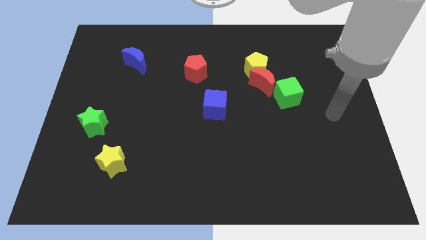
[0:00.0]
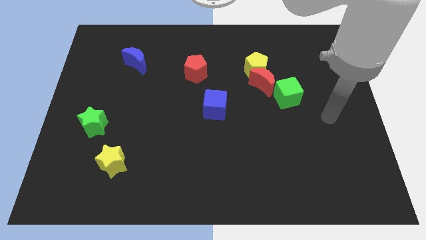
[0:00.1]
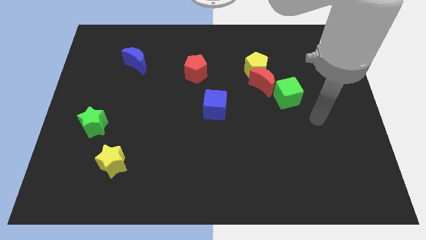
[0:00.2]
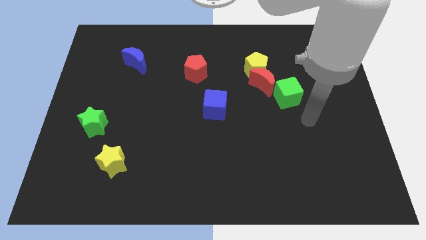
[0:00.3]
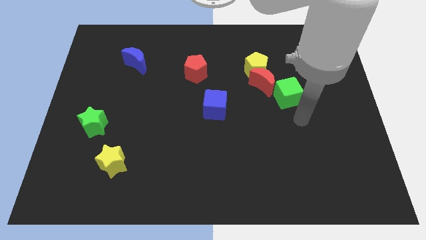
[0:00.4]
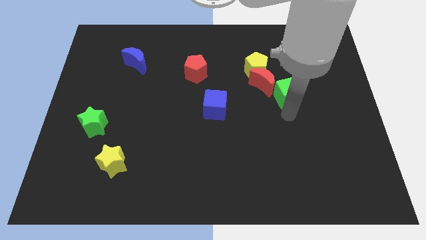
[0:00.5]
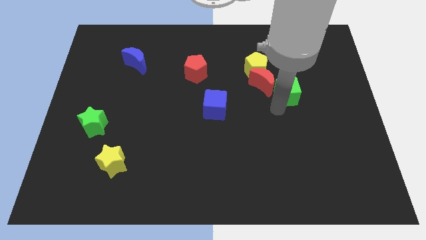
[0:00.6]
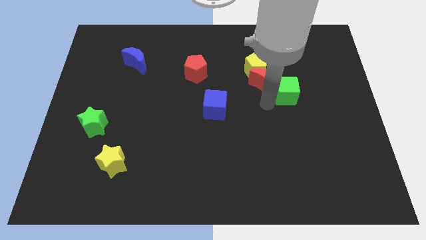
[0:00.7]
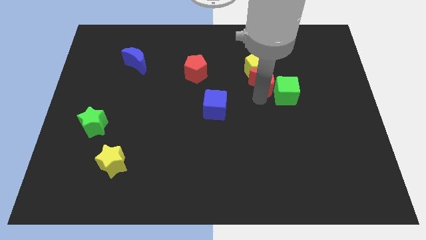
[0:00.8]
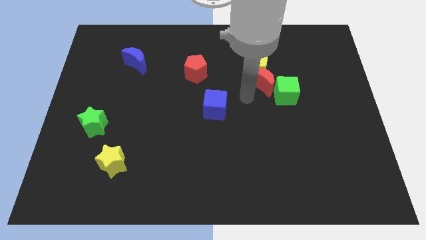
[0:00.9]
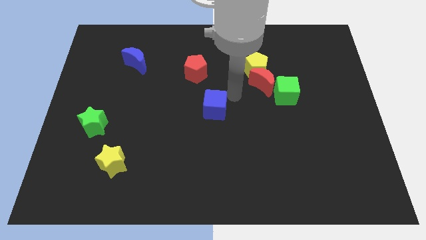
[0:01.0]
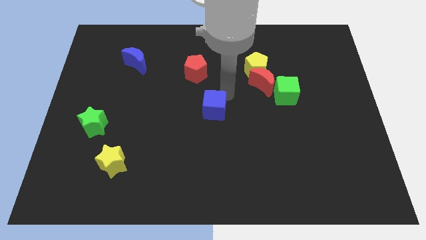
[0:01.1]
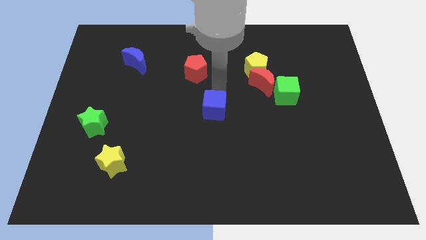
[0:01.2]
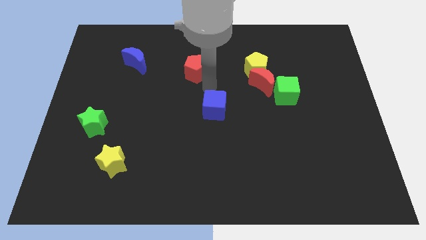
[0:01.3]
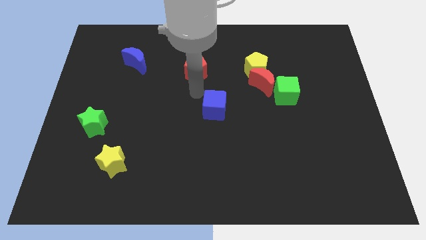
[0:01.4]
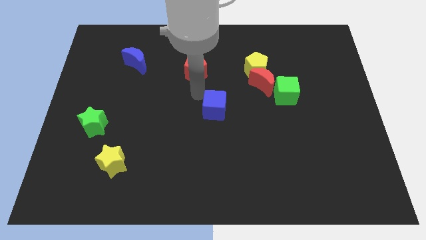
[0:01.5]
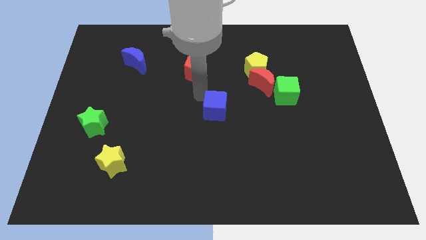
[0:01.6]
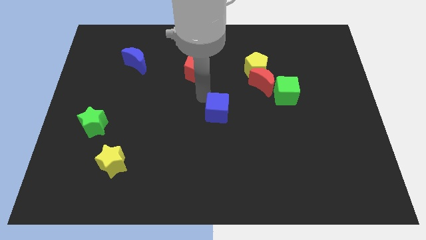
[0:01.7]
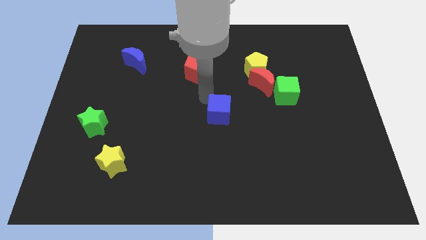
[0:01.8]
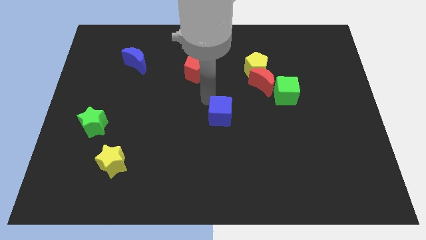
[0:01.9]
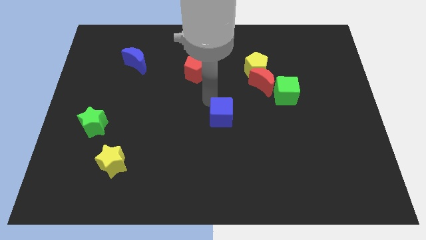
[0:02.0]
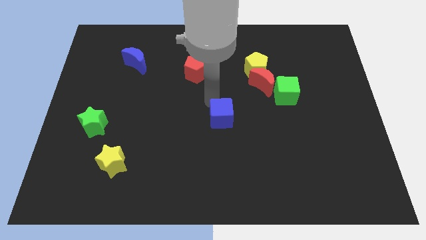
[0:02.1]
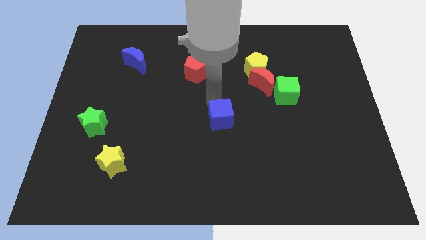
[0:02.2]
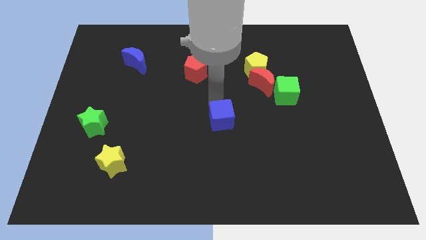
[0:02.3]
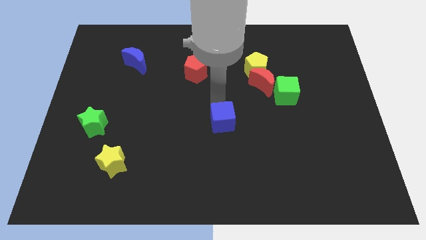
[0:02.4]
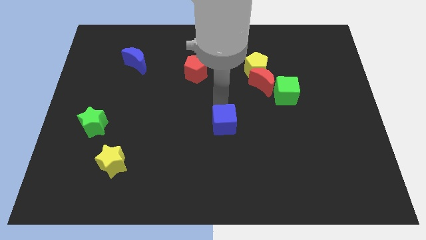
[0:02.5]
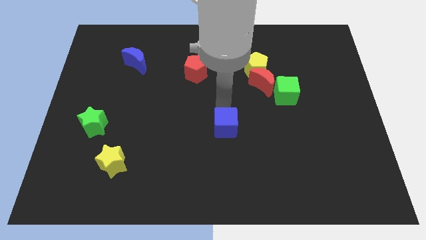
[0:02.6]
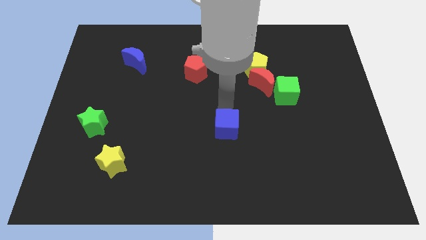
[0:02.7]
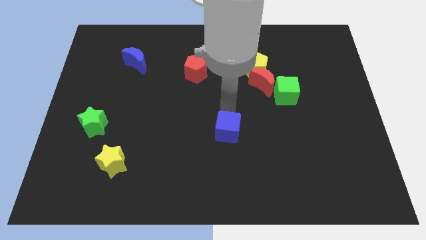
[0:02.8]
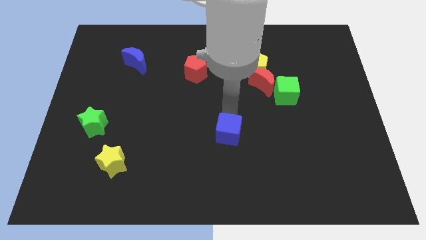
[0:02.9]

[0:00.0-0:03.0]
move the blue cube slightly down and then right

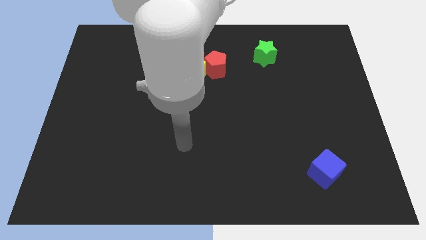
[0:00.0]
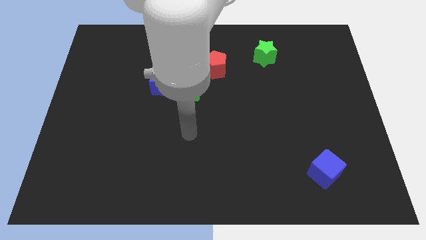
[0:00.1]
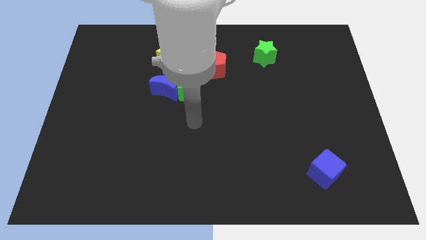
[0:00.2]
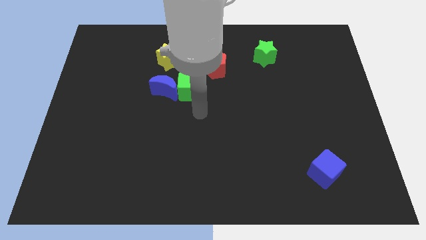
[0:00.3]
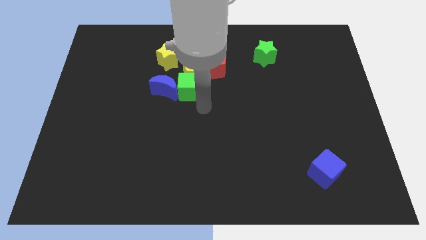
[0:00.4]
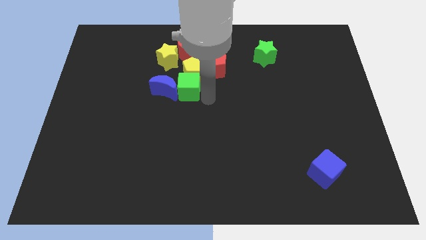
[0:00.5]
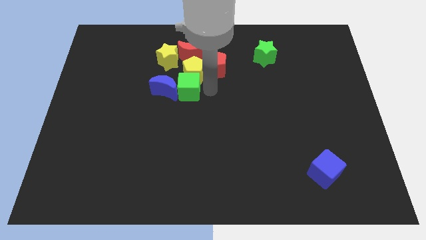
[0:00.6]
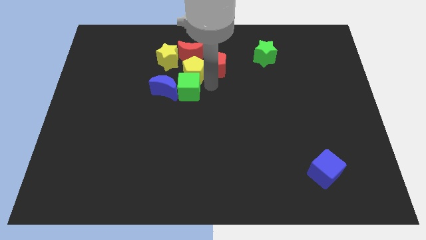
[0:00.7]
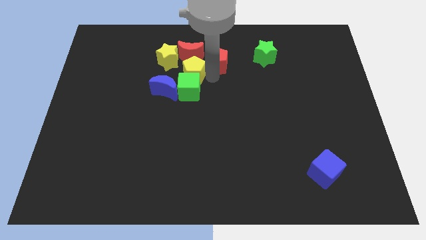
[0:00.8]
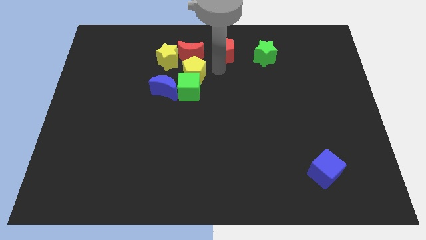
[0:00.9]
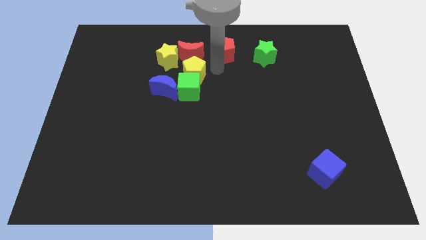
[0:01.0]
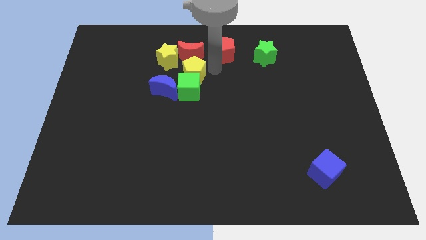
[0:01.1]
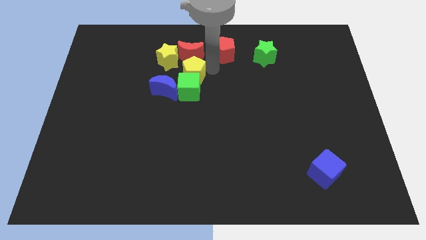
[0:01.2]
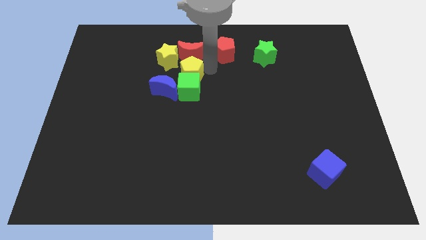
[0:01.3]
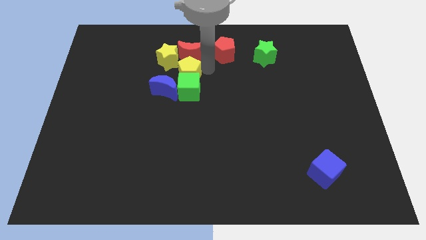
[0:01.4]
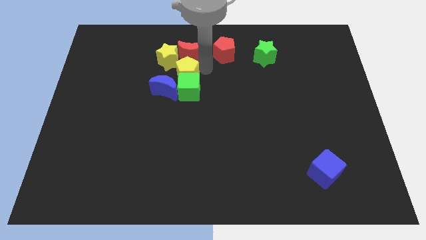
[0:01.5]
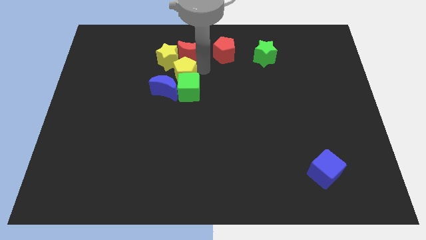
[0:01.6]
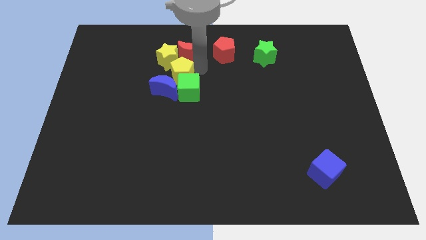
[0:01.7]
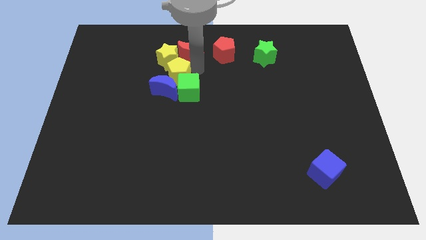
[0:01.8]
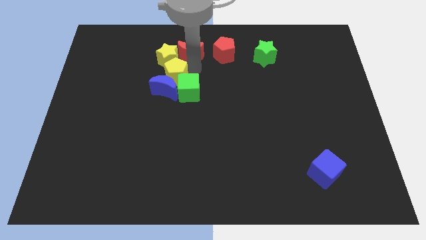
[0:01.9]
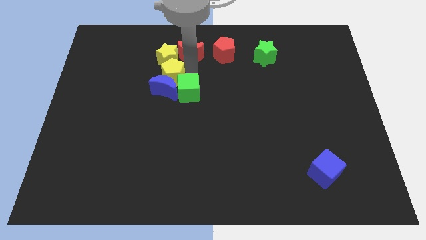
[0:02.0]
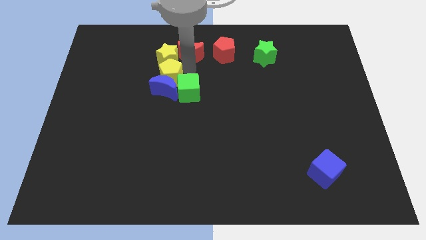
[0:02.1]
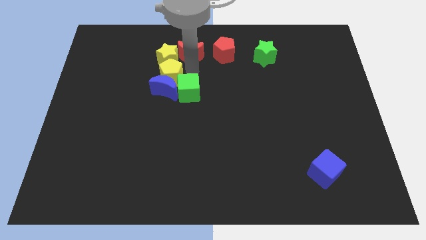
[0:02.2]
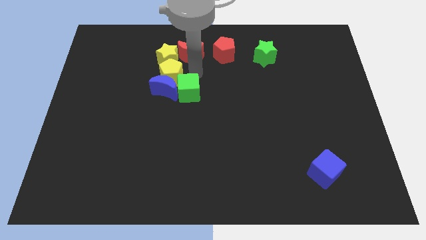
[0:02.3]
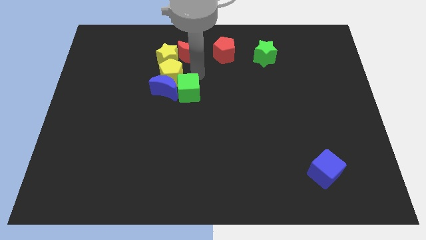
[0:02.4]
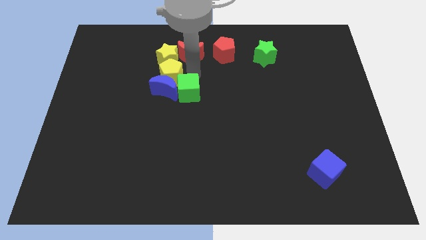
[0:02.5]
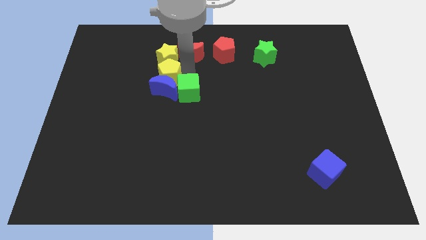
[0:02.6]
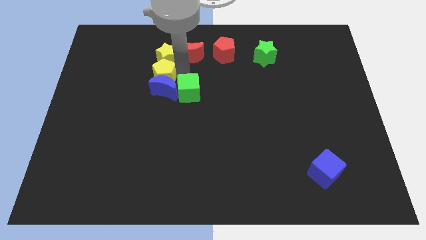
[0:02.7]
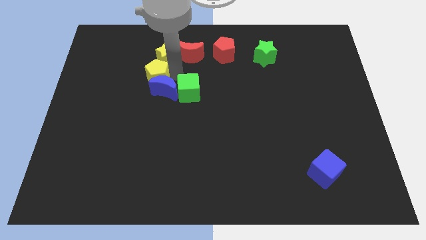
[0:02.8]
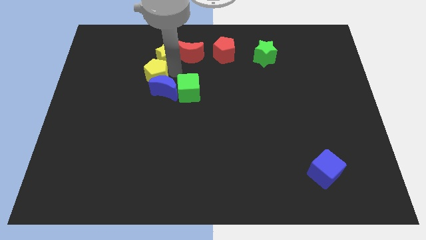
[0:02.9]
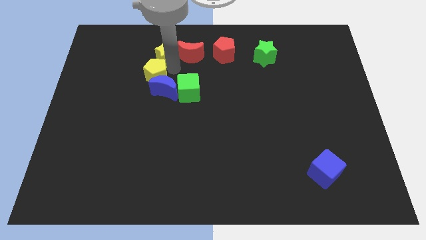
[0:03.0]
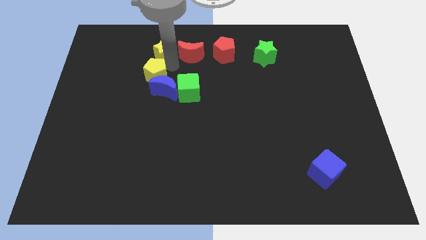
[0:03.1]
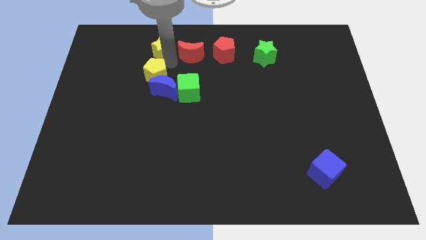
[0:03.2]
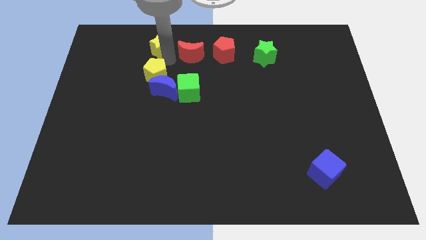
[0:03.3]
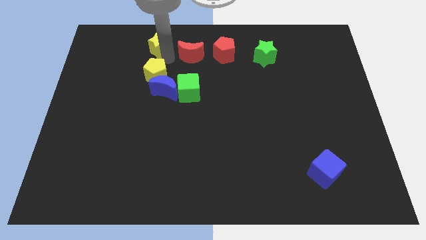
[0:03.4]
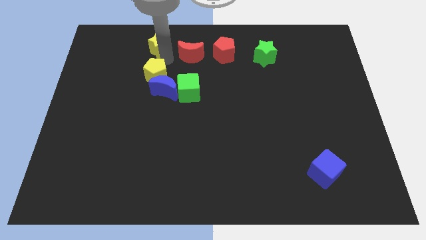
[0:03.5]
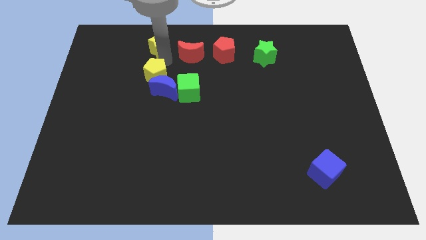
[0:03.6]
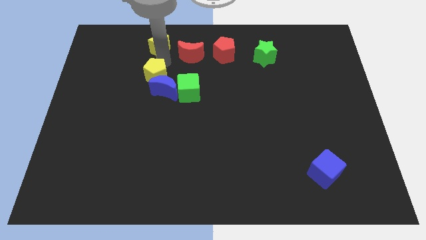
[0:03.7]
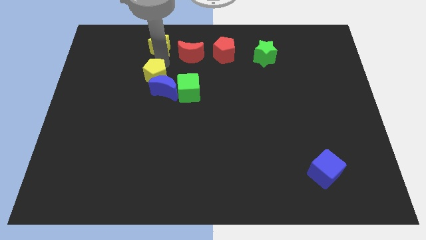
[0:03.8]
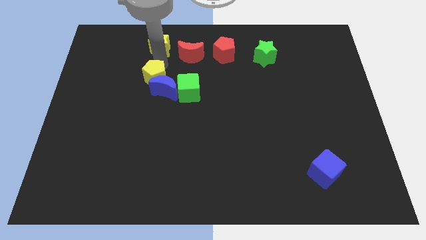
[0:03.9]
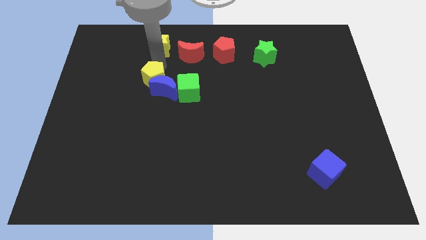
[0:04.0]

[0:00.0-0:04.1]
move the yellow pentagon a little downwards and then to the left

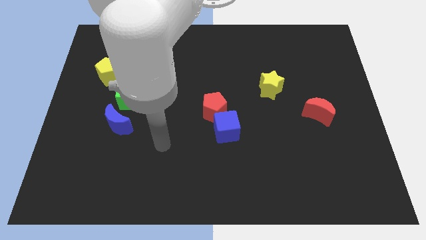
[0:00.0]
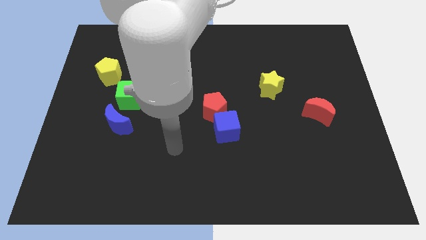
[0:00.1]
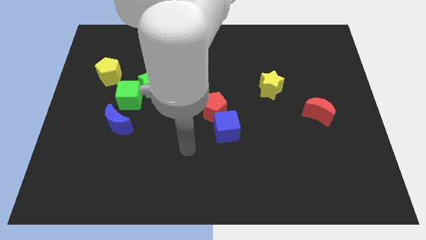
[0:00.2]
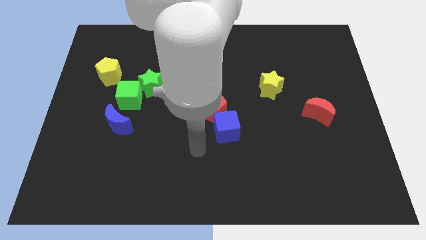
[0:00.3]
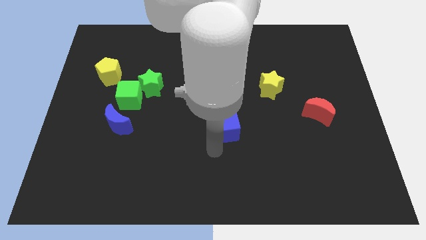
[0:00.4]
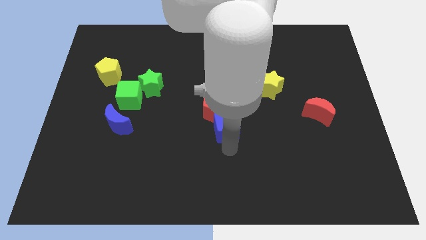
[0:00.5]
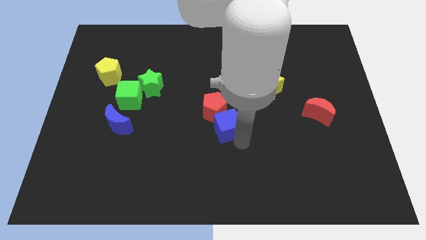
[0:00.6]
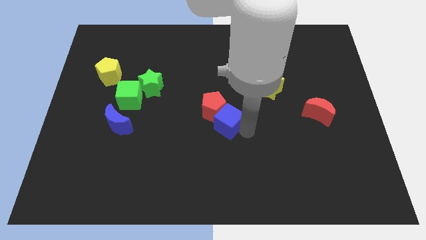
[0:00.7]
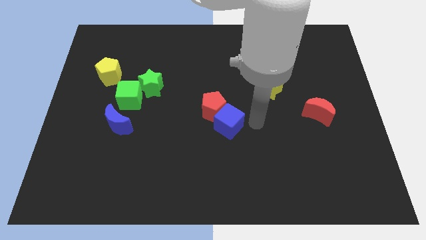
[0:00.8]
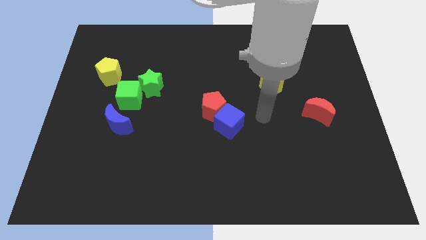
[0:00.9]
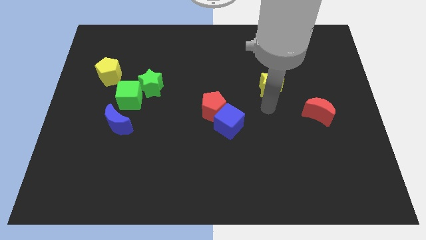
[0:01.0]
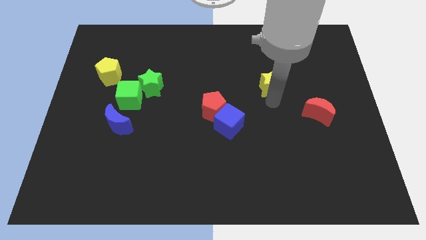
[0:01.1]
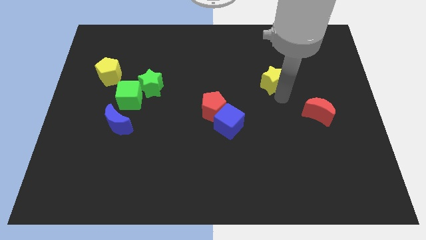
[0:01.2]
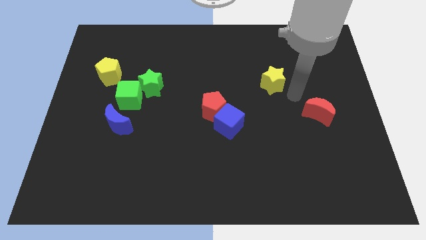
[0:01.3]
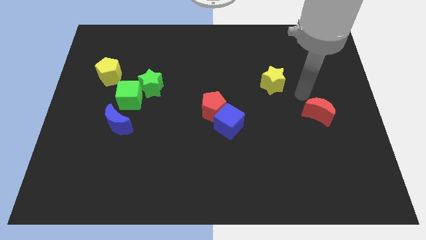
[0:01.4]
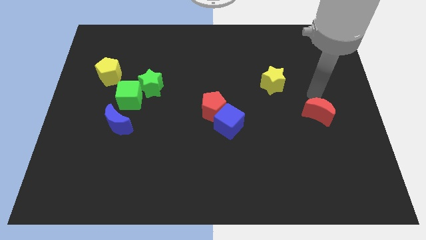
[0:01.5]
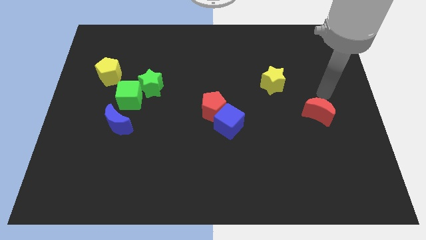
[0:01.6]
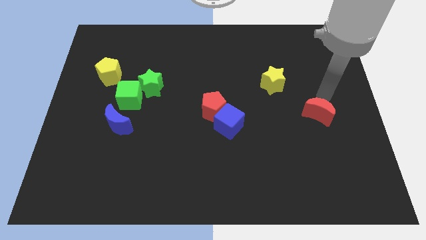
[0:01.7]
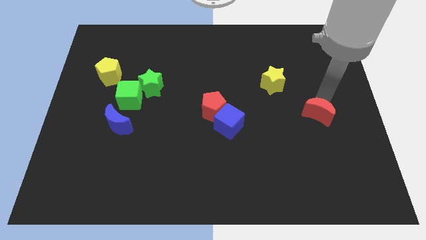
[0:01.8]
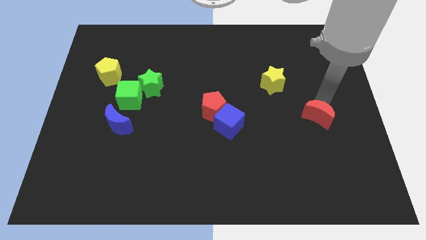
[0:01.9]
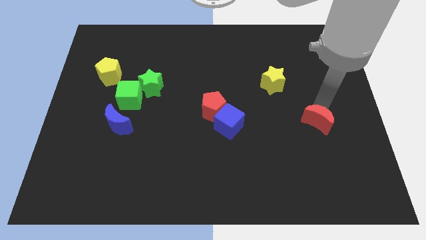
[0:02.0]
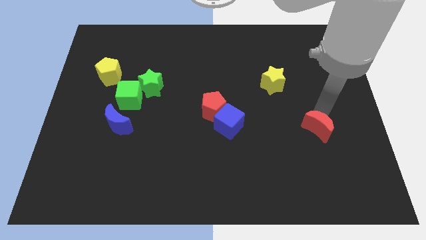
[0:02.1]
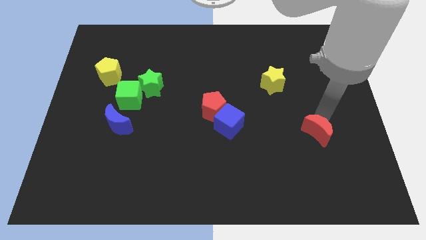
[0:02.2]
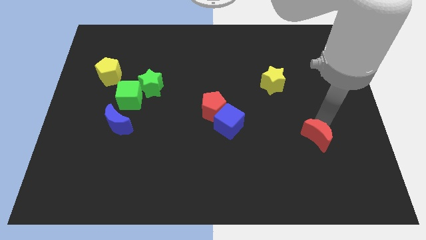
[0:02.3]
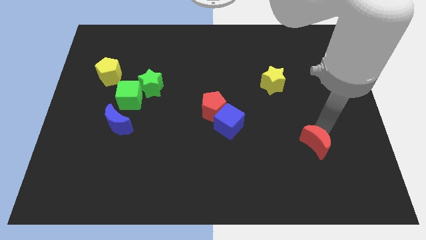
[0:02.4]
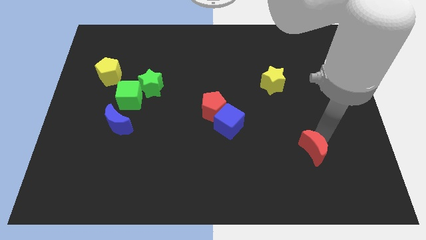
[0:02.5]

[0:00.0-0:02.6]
slightly slide the red moon downwards and left
